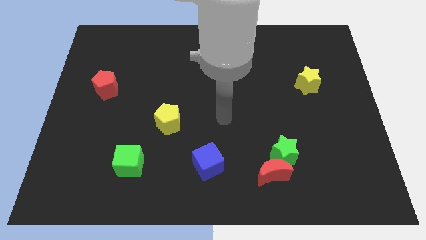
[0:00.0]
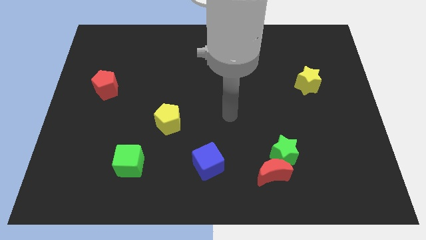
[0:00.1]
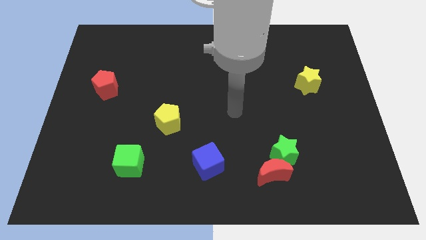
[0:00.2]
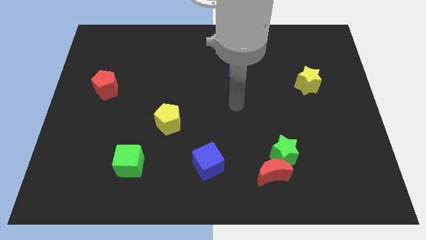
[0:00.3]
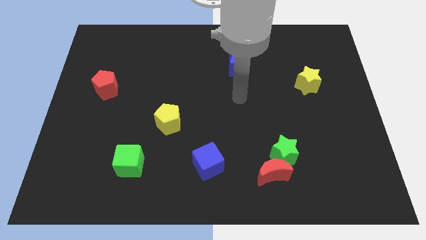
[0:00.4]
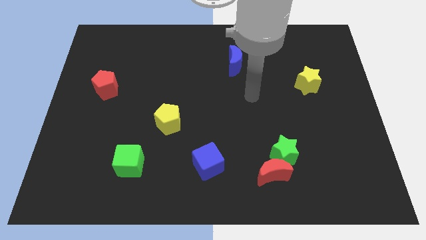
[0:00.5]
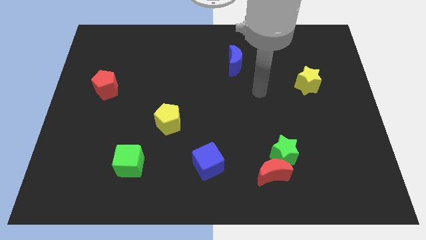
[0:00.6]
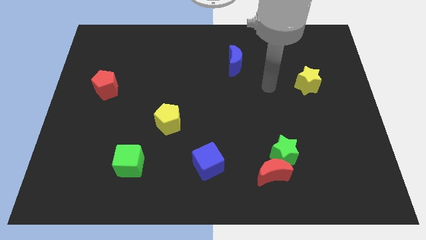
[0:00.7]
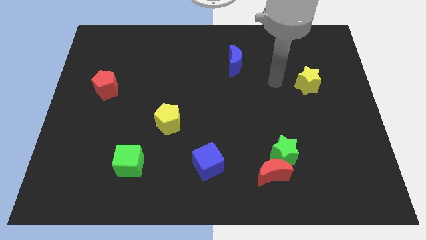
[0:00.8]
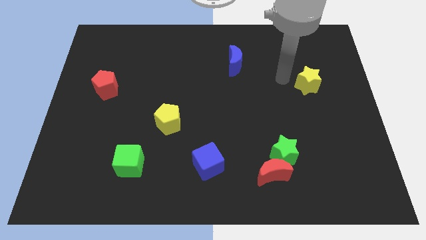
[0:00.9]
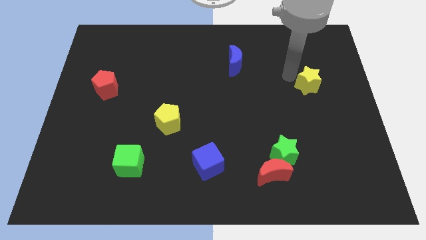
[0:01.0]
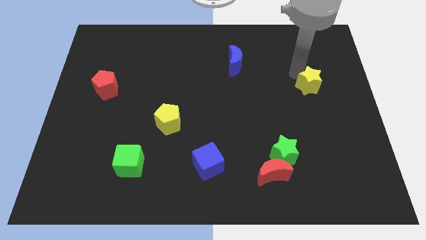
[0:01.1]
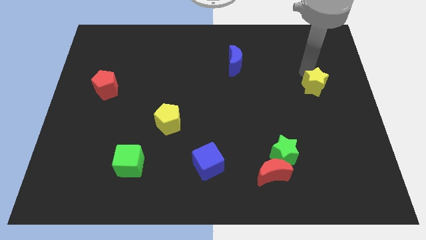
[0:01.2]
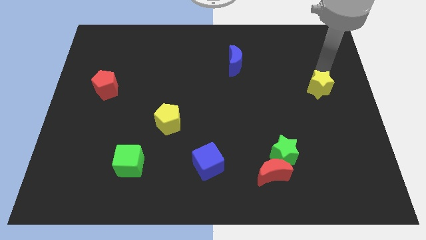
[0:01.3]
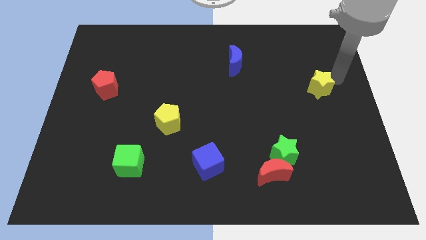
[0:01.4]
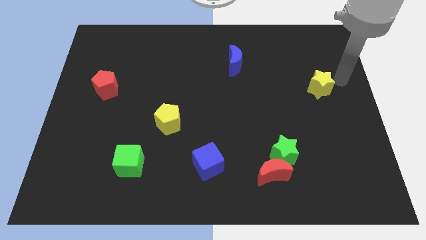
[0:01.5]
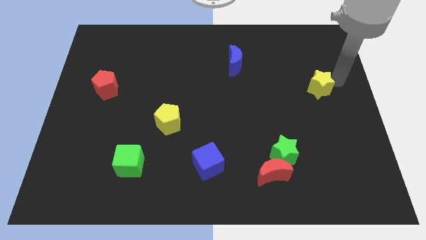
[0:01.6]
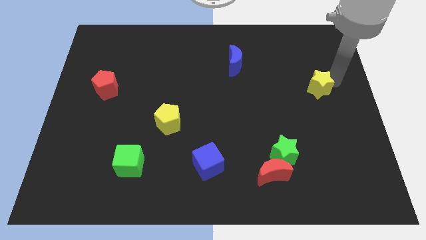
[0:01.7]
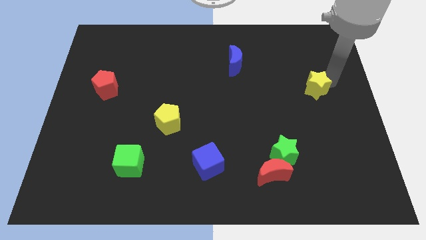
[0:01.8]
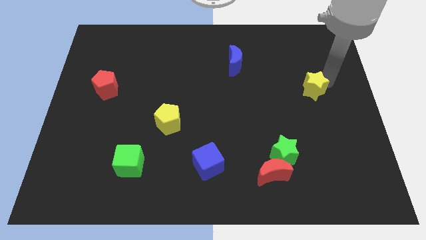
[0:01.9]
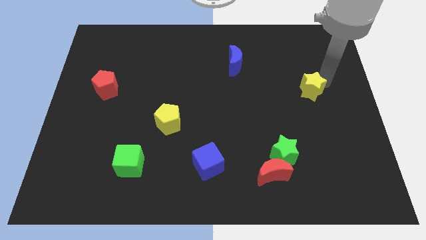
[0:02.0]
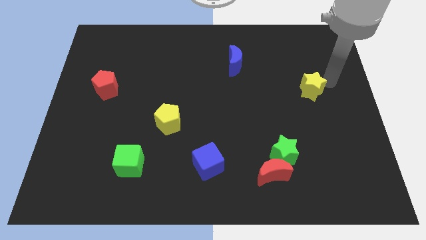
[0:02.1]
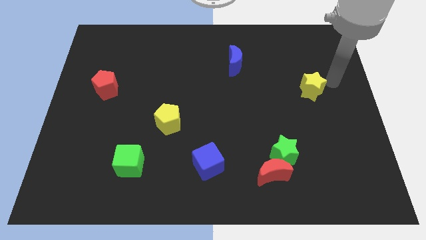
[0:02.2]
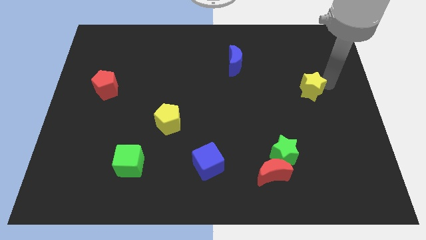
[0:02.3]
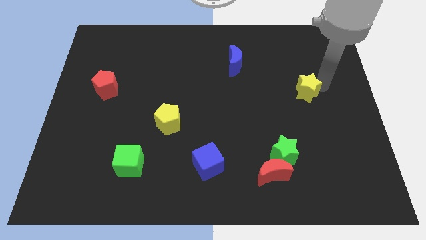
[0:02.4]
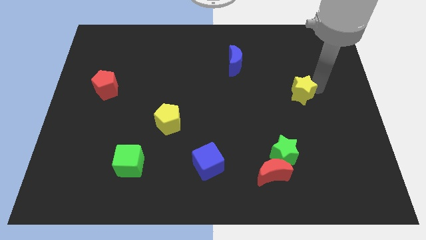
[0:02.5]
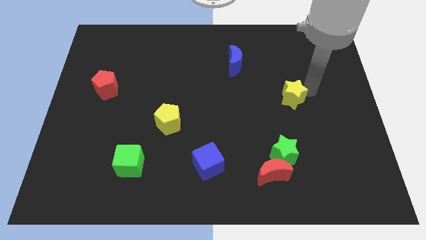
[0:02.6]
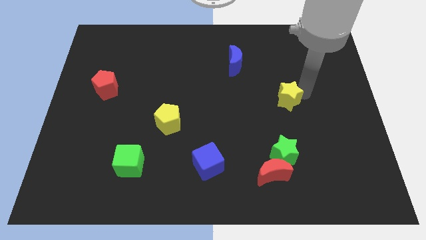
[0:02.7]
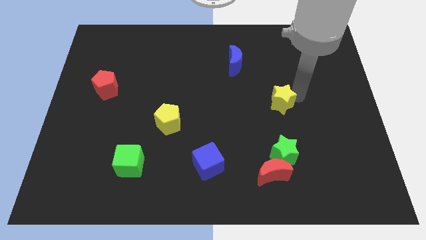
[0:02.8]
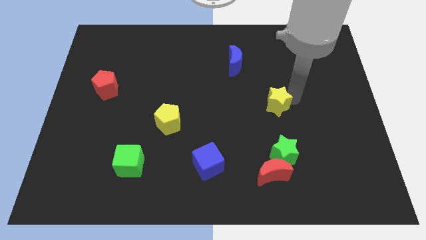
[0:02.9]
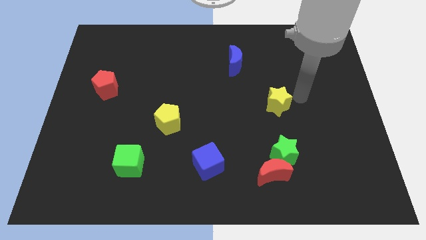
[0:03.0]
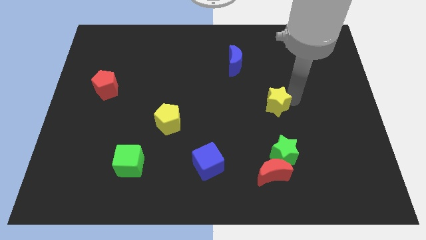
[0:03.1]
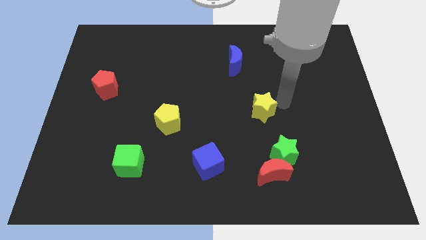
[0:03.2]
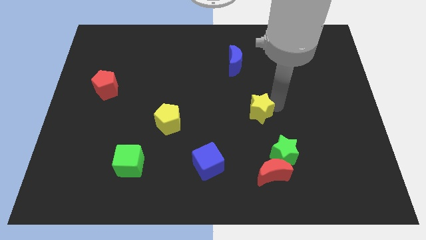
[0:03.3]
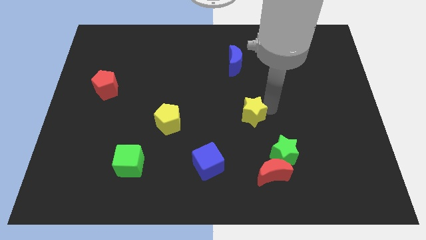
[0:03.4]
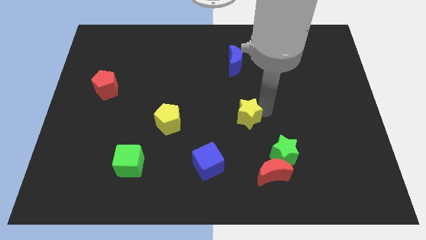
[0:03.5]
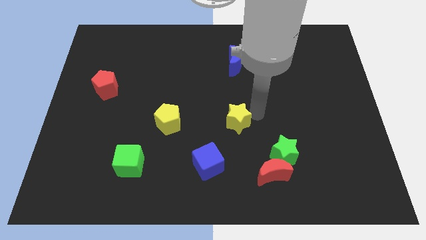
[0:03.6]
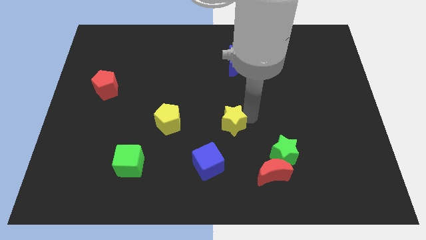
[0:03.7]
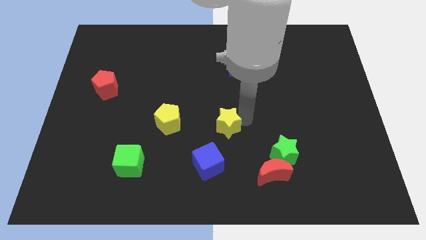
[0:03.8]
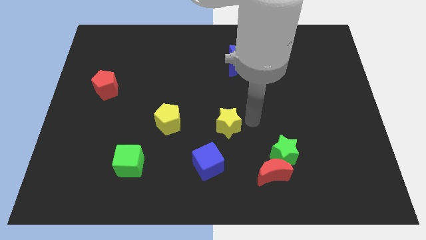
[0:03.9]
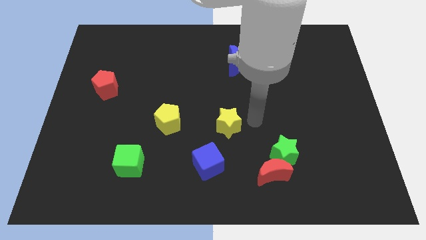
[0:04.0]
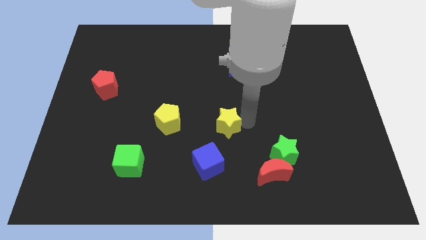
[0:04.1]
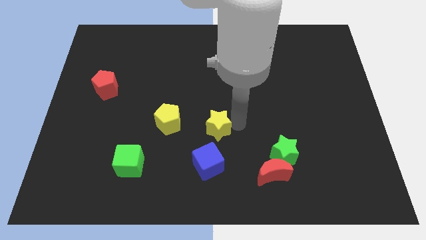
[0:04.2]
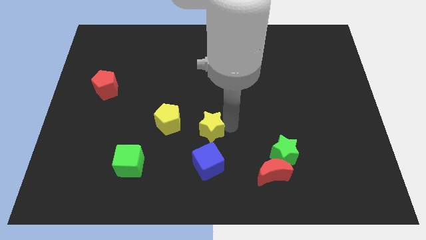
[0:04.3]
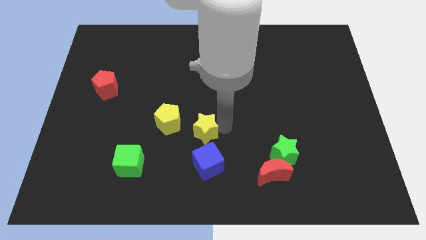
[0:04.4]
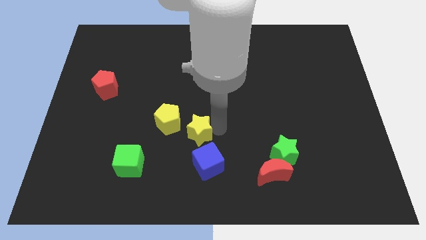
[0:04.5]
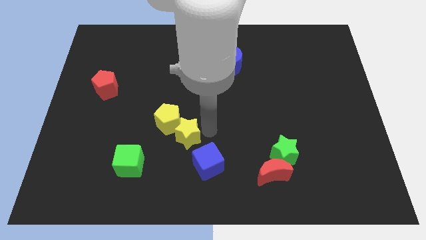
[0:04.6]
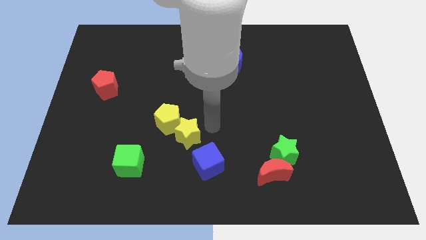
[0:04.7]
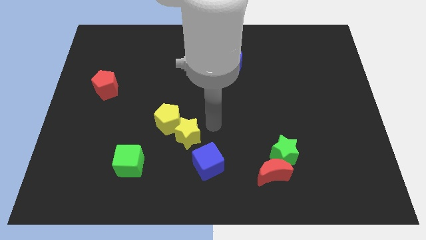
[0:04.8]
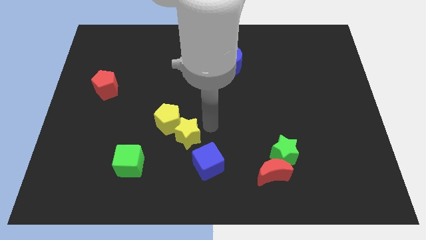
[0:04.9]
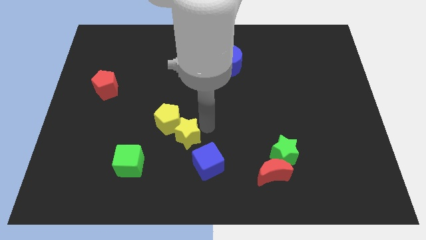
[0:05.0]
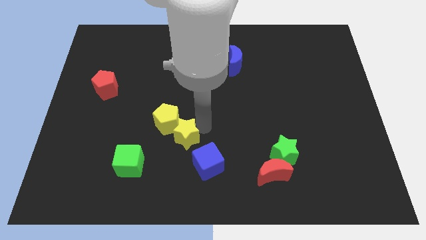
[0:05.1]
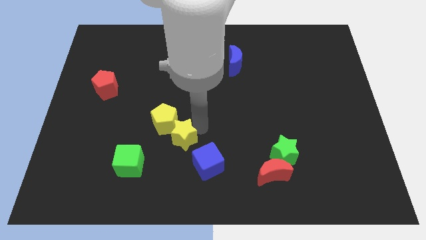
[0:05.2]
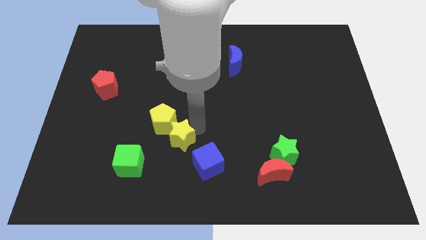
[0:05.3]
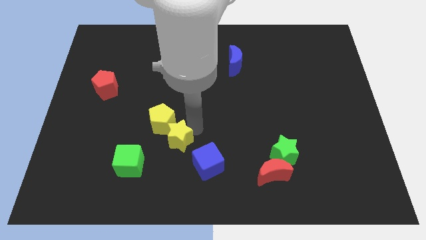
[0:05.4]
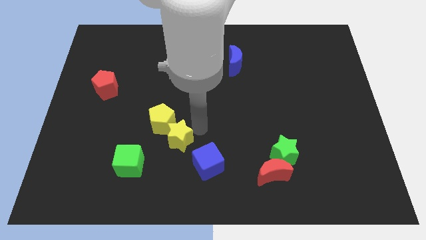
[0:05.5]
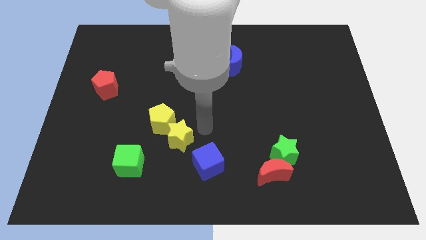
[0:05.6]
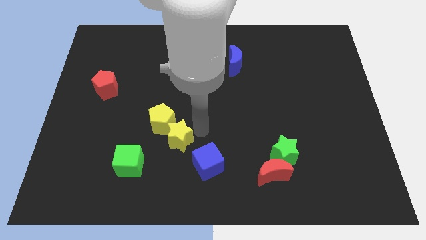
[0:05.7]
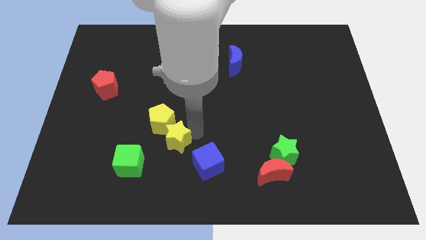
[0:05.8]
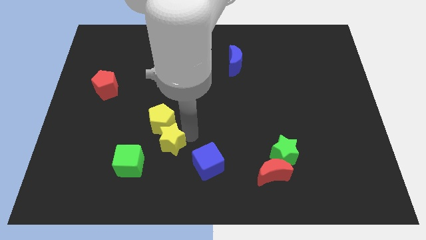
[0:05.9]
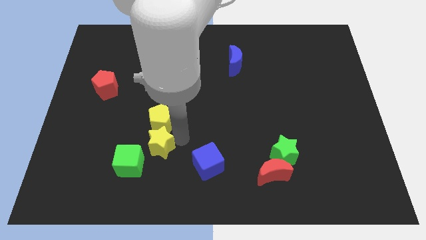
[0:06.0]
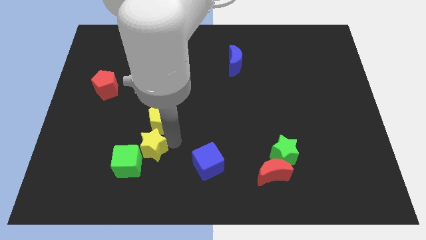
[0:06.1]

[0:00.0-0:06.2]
push the yellow star close to the green cube

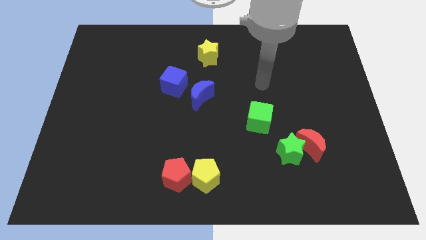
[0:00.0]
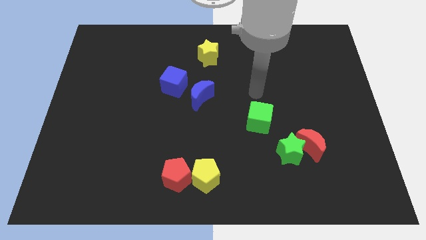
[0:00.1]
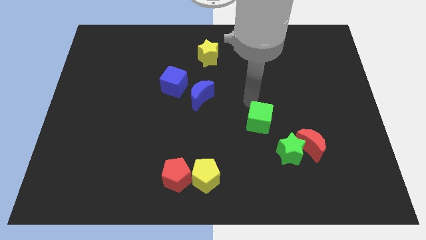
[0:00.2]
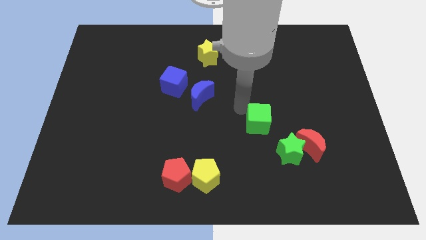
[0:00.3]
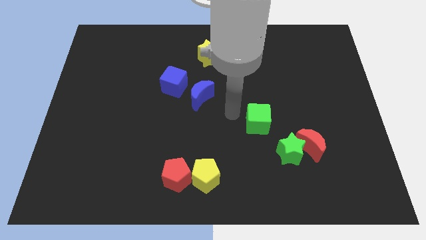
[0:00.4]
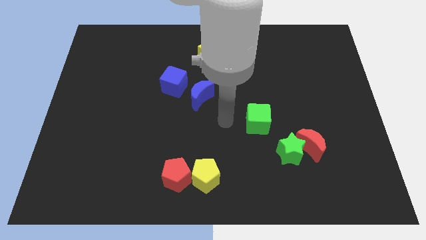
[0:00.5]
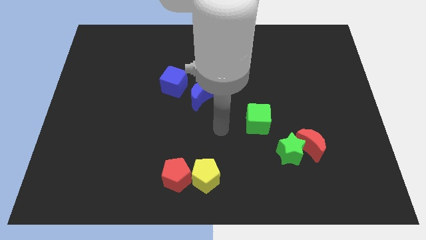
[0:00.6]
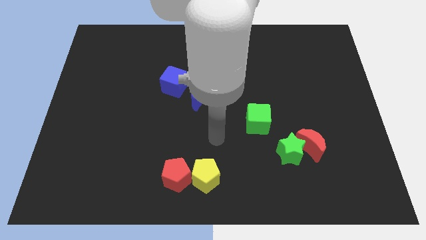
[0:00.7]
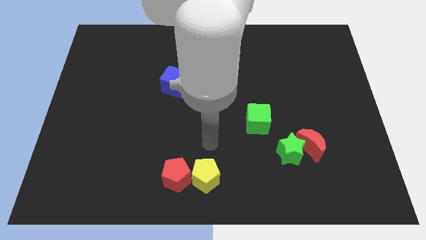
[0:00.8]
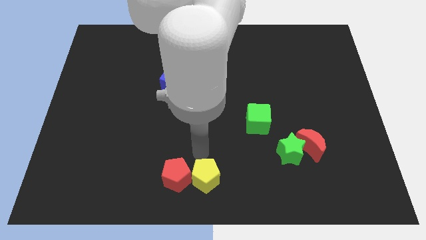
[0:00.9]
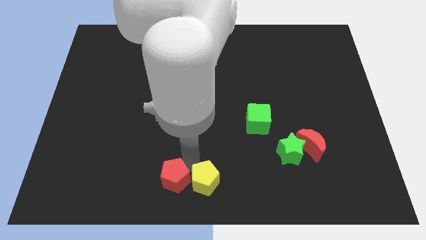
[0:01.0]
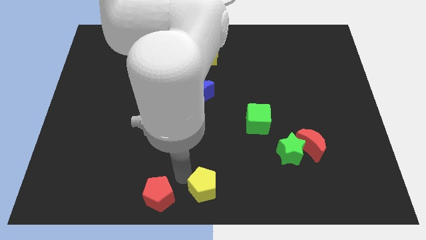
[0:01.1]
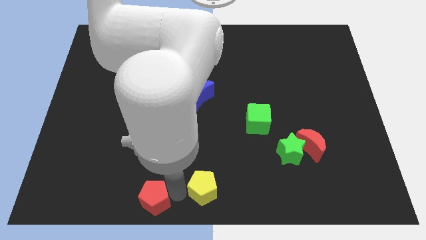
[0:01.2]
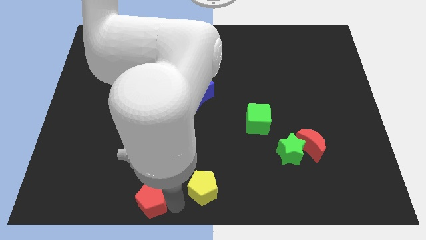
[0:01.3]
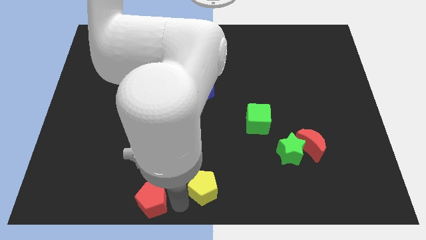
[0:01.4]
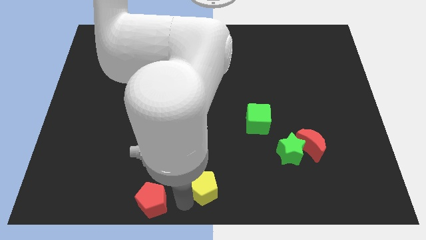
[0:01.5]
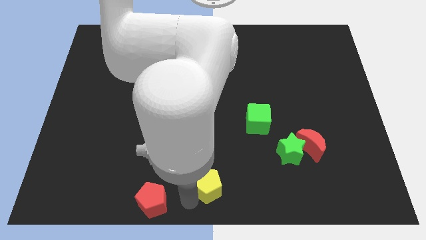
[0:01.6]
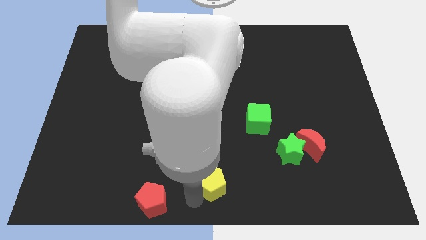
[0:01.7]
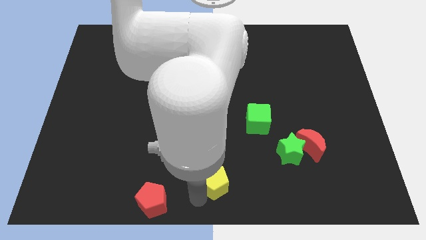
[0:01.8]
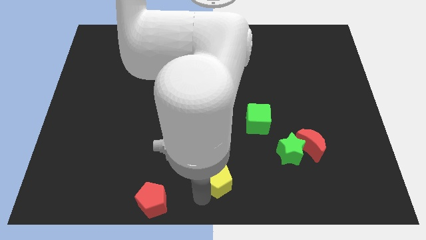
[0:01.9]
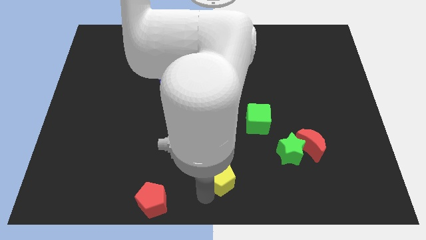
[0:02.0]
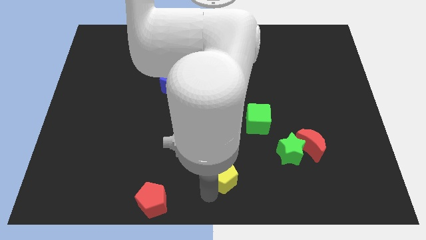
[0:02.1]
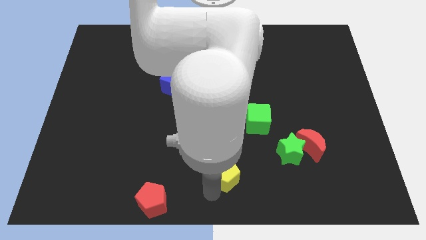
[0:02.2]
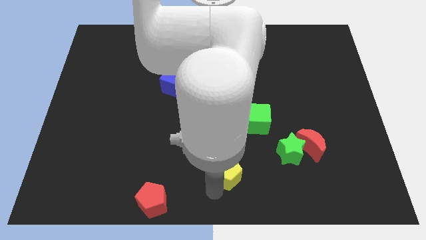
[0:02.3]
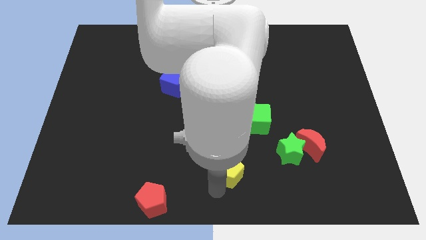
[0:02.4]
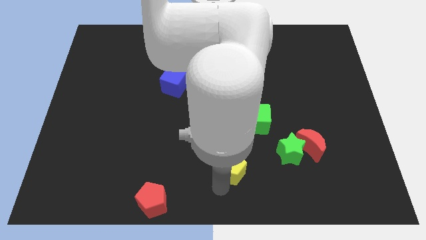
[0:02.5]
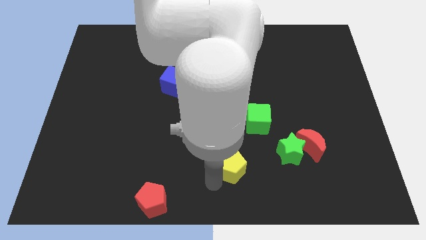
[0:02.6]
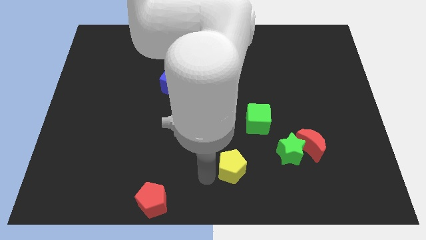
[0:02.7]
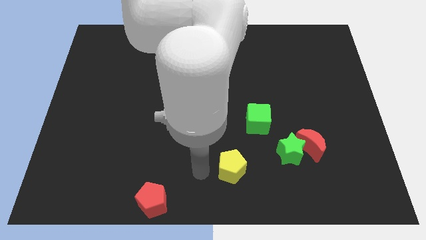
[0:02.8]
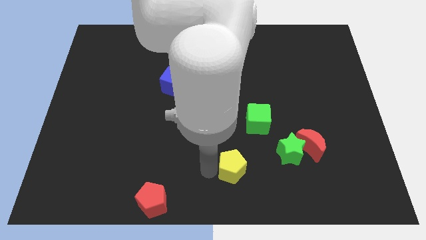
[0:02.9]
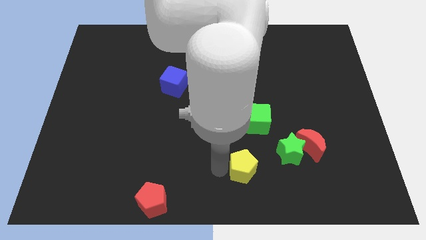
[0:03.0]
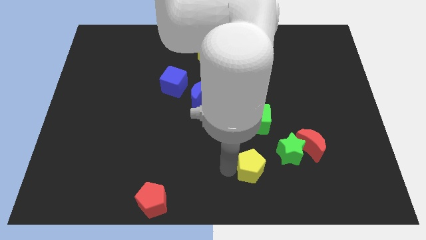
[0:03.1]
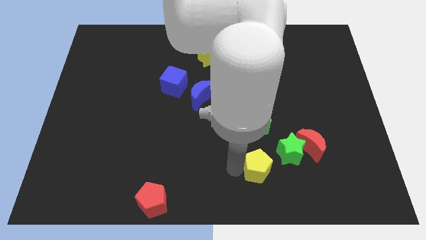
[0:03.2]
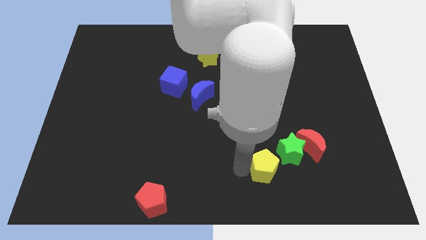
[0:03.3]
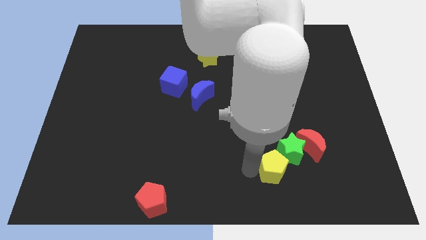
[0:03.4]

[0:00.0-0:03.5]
move the yellow pentagon to the green star
